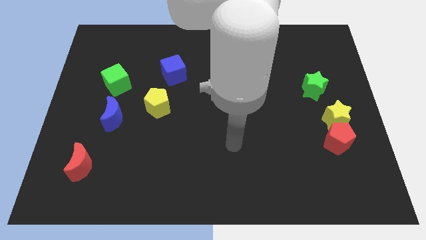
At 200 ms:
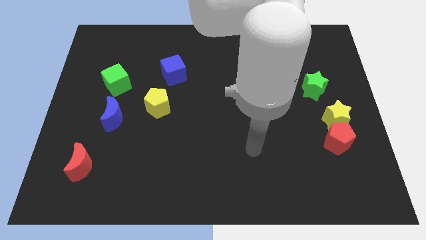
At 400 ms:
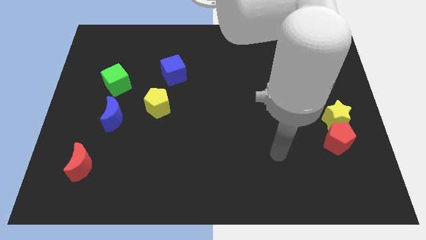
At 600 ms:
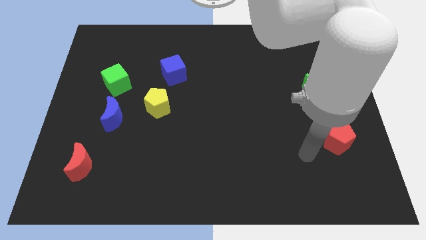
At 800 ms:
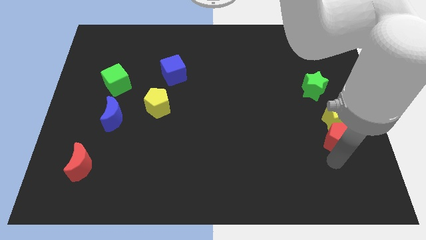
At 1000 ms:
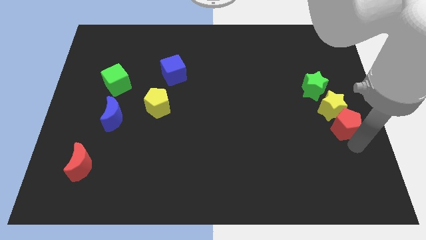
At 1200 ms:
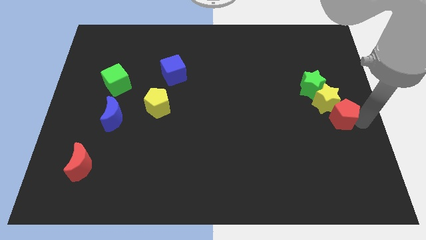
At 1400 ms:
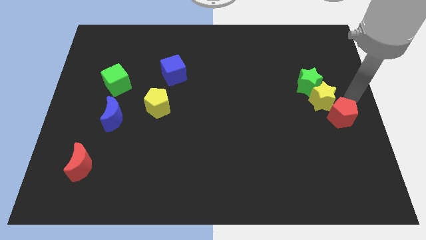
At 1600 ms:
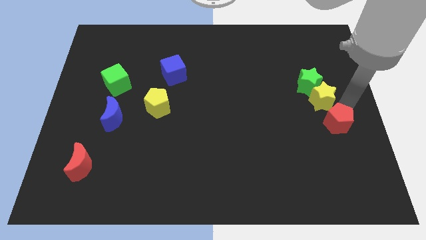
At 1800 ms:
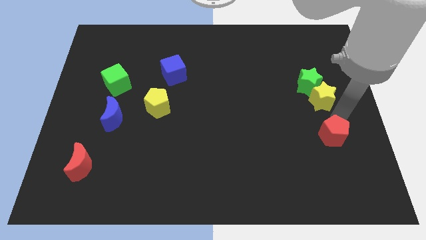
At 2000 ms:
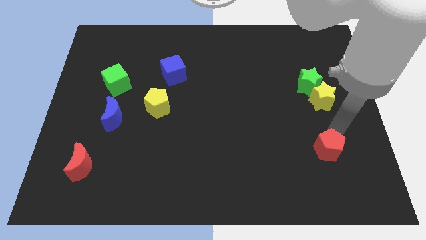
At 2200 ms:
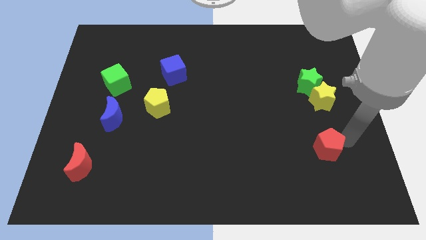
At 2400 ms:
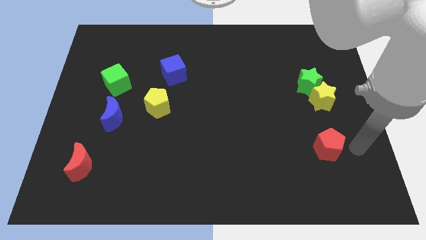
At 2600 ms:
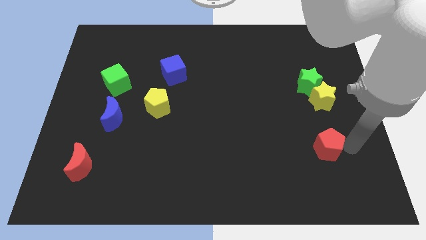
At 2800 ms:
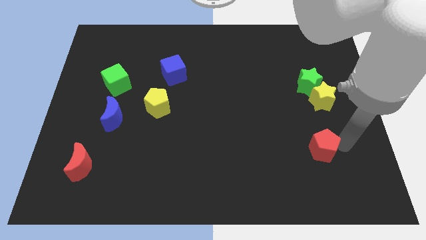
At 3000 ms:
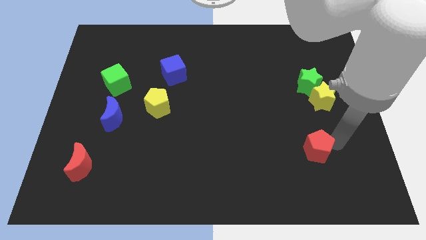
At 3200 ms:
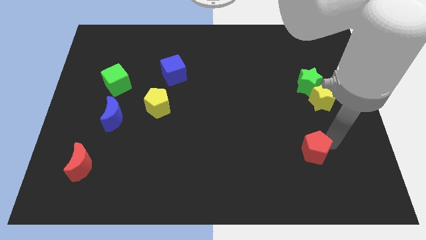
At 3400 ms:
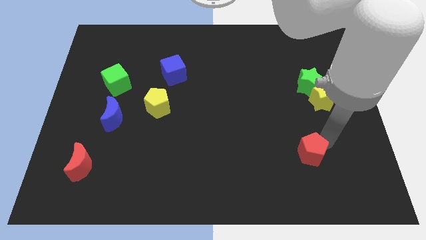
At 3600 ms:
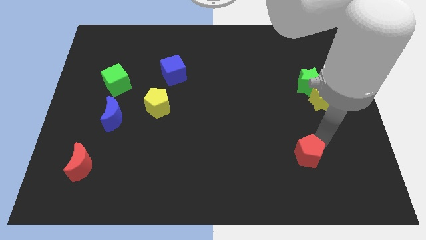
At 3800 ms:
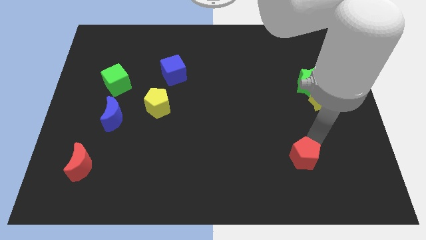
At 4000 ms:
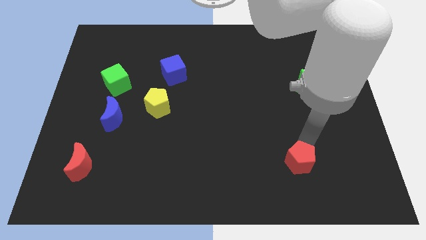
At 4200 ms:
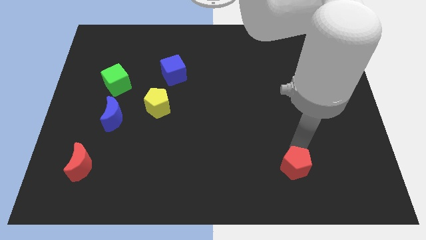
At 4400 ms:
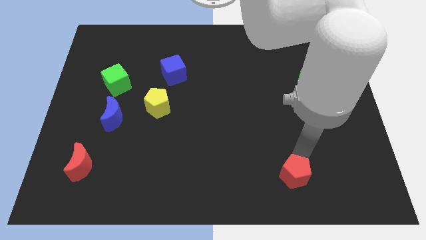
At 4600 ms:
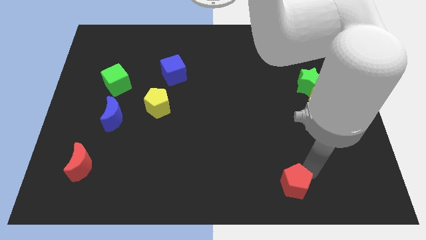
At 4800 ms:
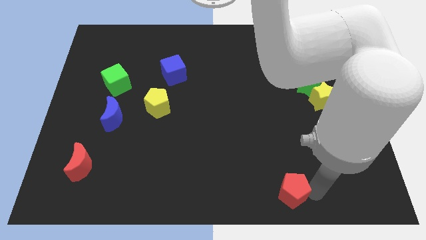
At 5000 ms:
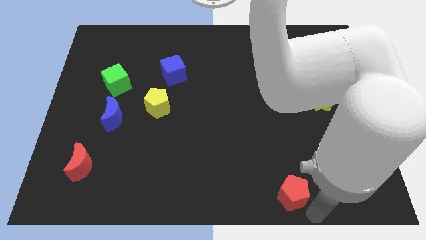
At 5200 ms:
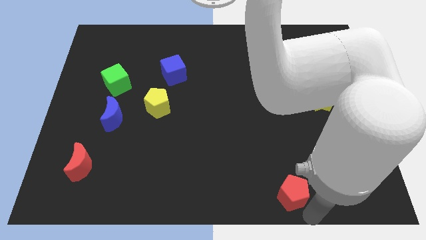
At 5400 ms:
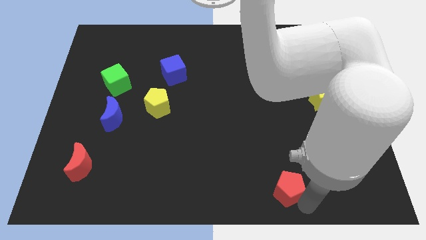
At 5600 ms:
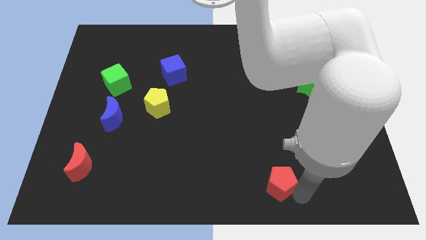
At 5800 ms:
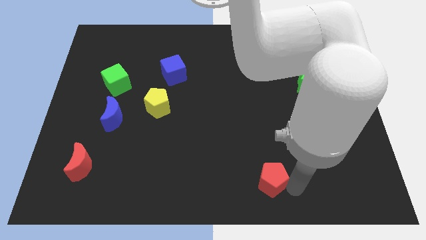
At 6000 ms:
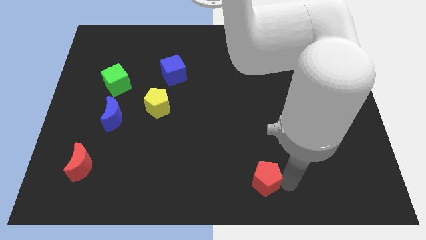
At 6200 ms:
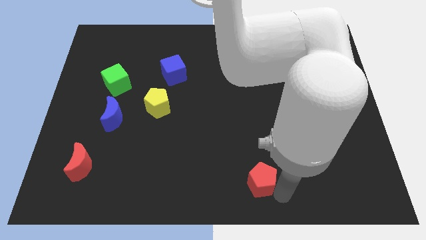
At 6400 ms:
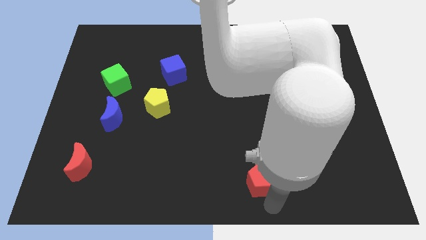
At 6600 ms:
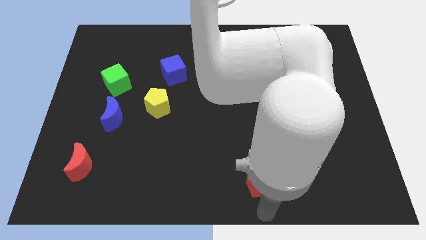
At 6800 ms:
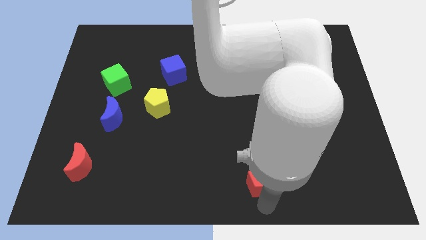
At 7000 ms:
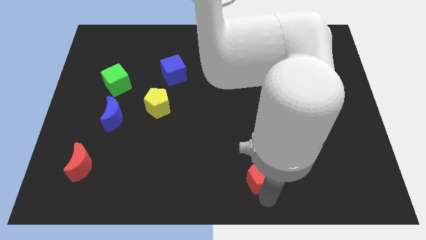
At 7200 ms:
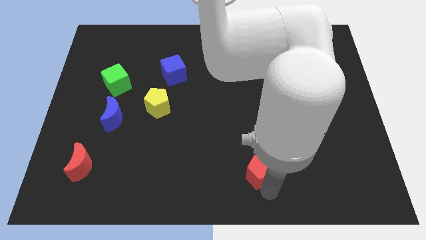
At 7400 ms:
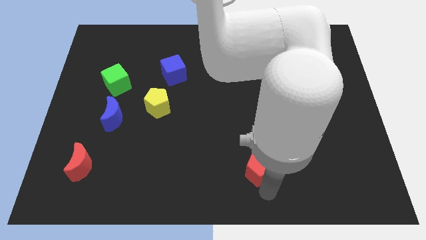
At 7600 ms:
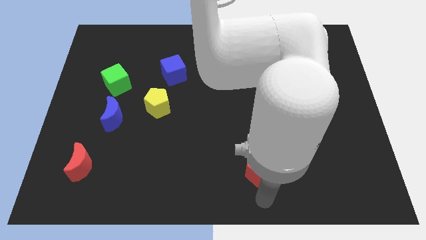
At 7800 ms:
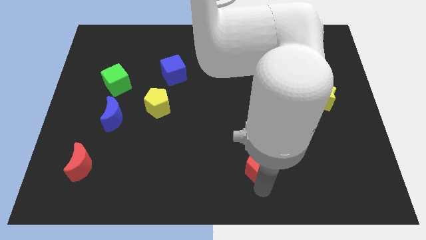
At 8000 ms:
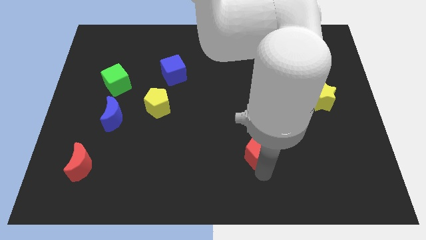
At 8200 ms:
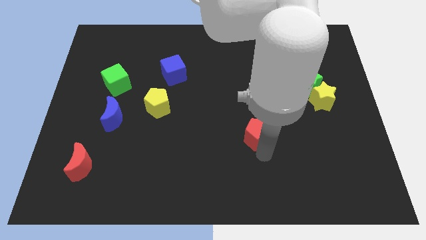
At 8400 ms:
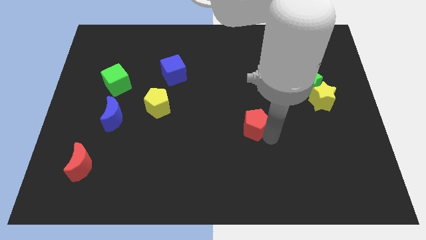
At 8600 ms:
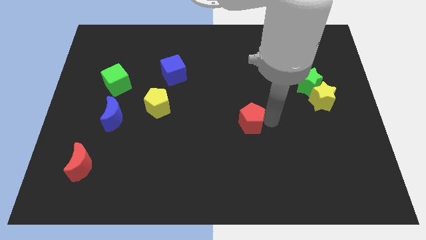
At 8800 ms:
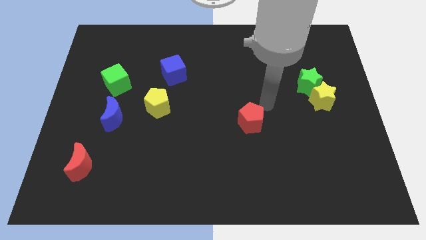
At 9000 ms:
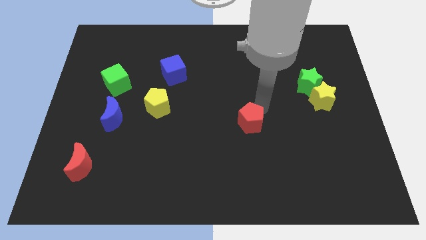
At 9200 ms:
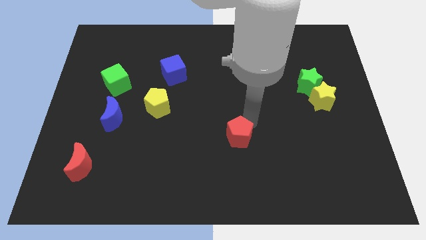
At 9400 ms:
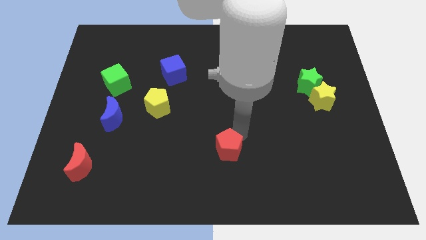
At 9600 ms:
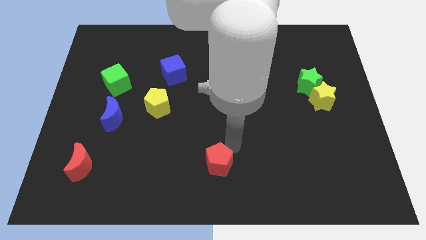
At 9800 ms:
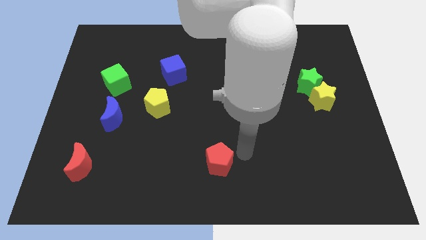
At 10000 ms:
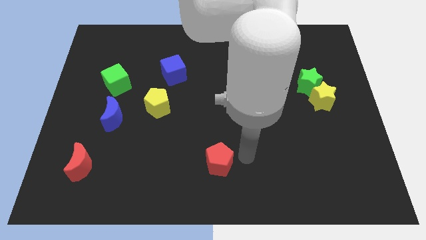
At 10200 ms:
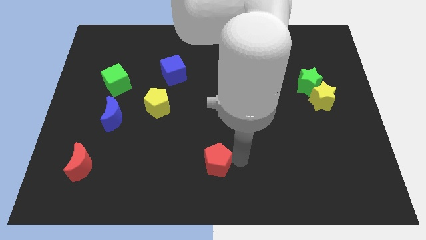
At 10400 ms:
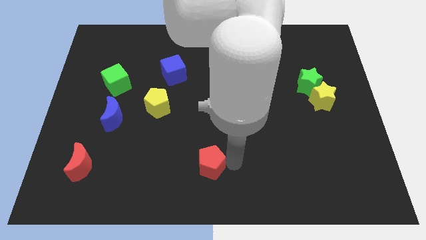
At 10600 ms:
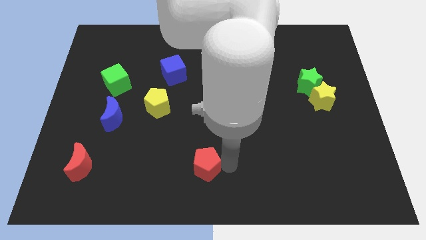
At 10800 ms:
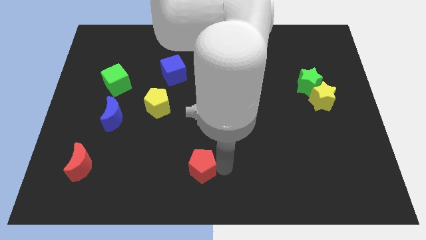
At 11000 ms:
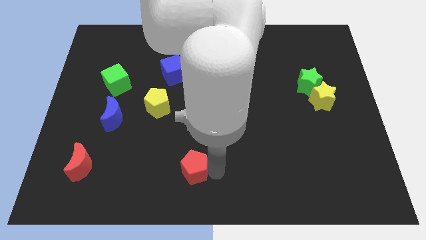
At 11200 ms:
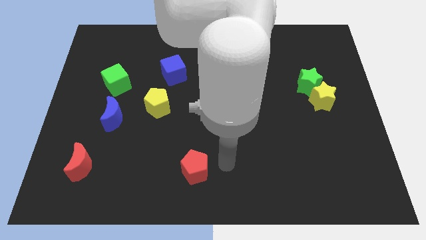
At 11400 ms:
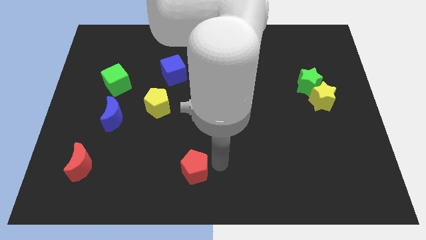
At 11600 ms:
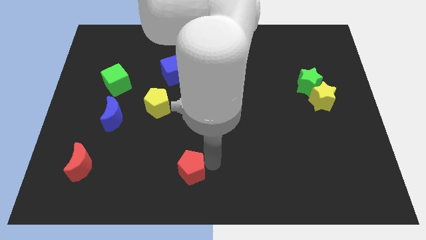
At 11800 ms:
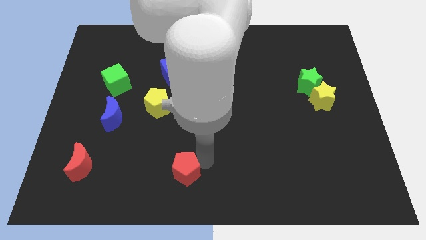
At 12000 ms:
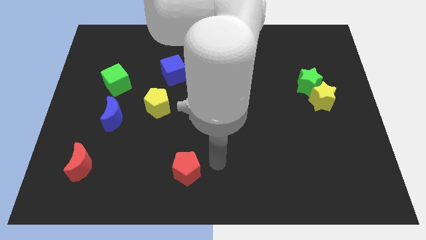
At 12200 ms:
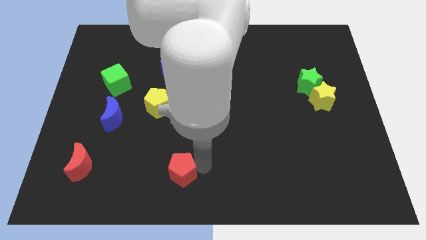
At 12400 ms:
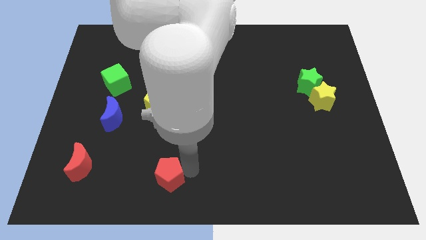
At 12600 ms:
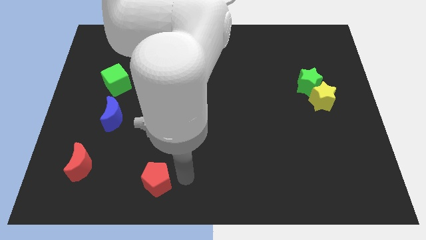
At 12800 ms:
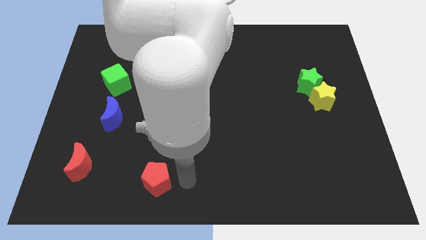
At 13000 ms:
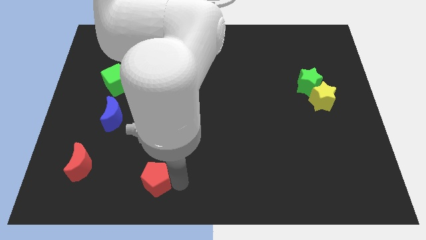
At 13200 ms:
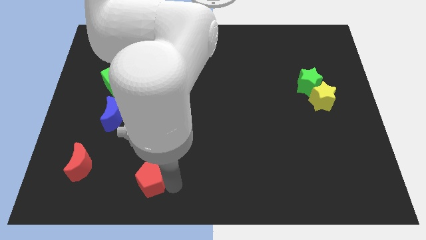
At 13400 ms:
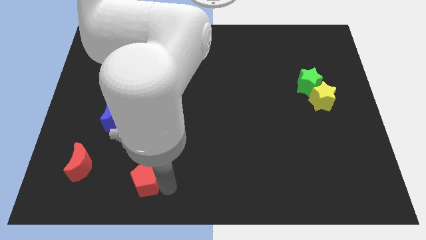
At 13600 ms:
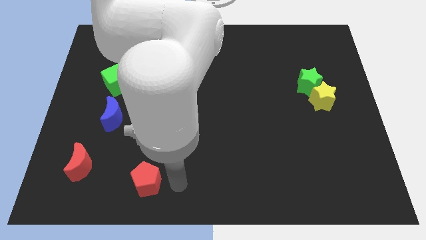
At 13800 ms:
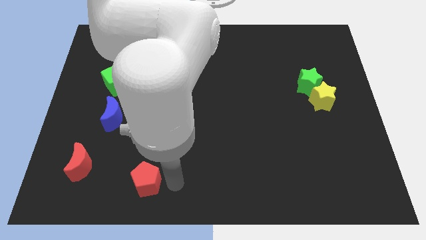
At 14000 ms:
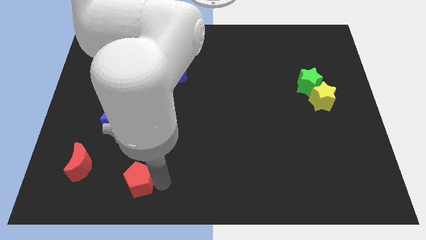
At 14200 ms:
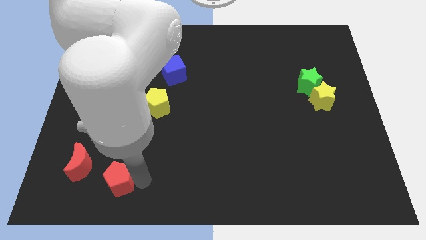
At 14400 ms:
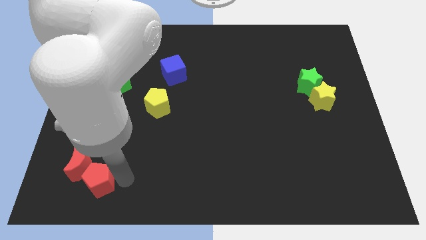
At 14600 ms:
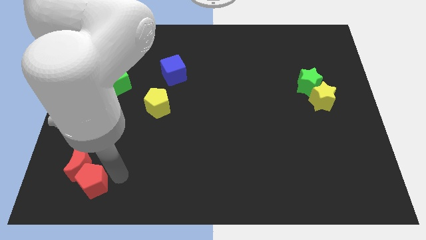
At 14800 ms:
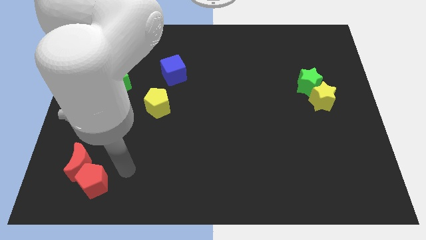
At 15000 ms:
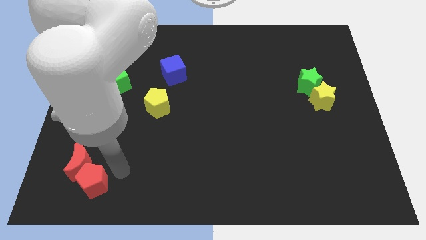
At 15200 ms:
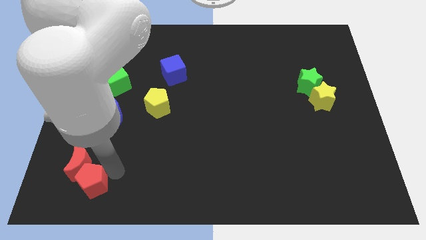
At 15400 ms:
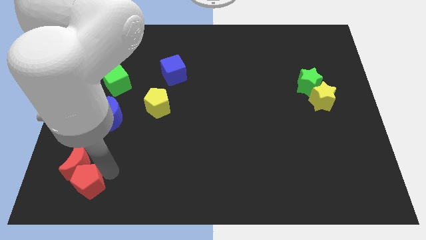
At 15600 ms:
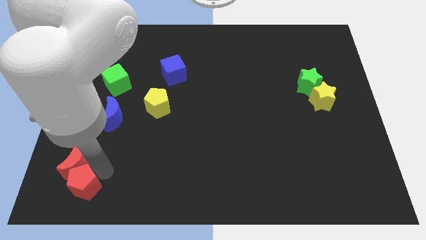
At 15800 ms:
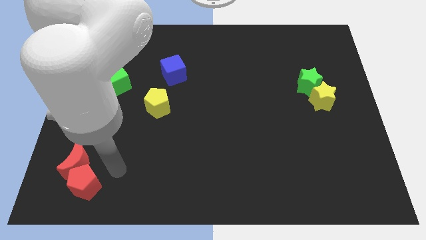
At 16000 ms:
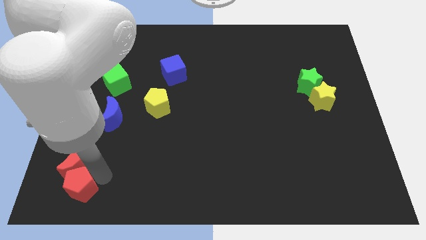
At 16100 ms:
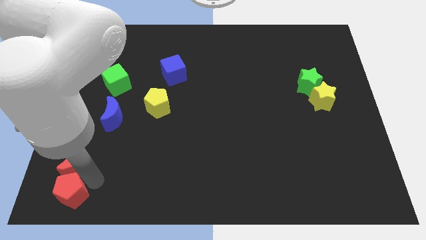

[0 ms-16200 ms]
put the red pentagon to the lower left corner

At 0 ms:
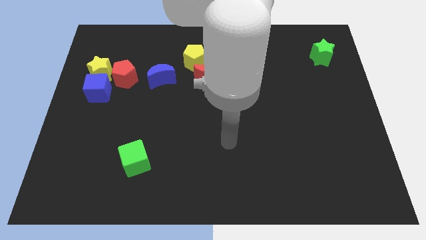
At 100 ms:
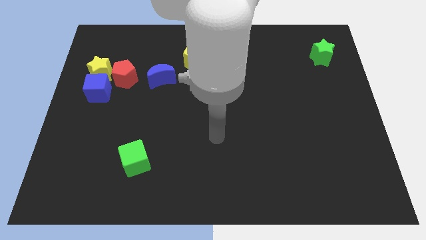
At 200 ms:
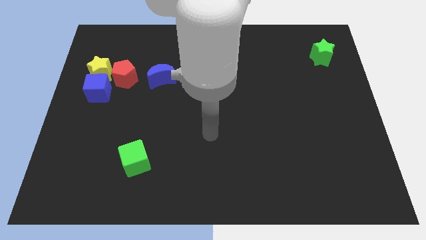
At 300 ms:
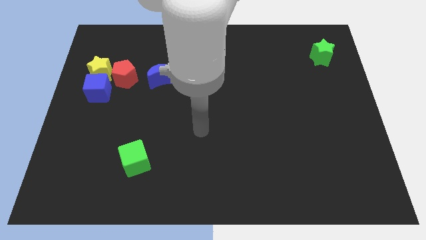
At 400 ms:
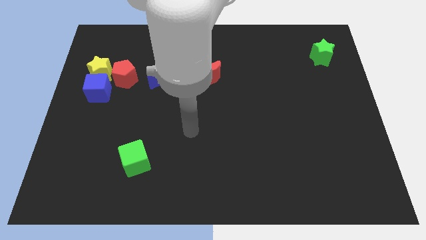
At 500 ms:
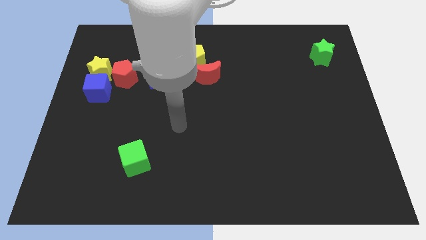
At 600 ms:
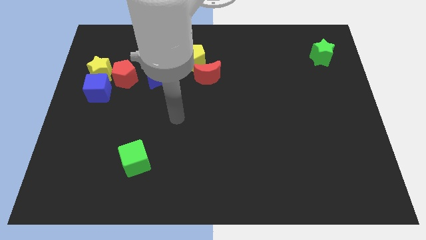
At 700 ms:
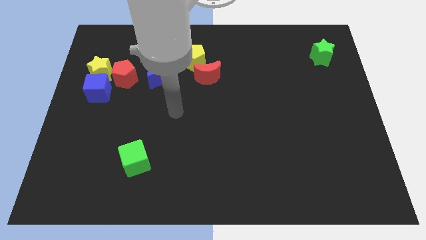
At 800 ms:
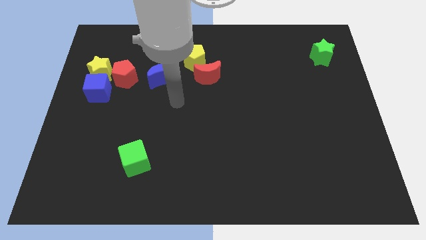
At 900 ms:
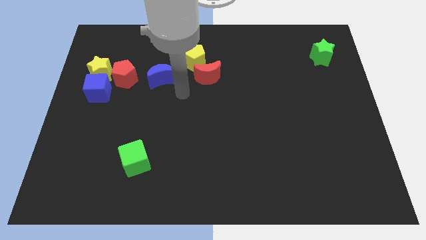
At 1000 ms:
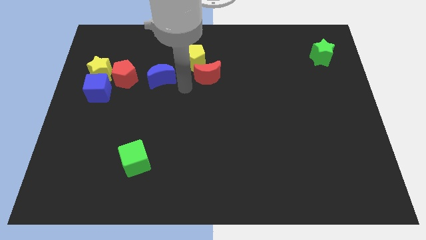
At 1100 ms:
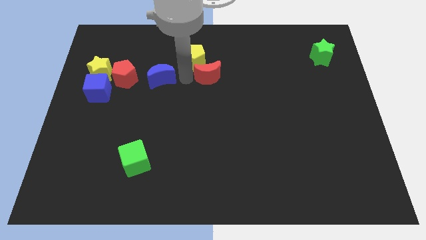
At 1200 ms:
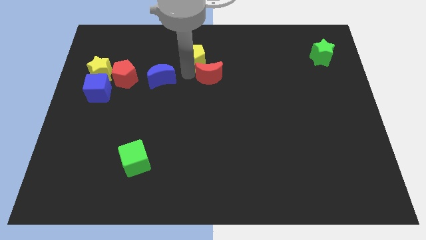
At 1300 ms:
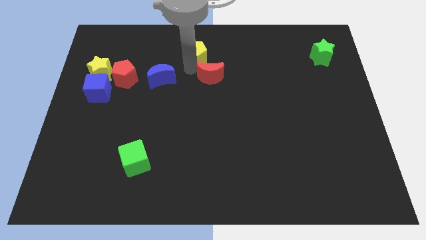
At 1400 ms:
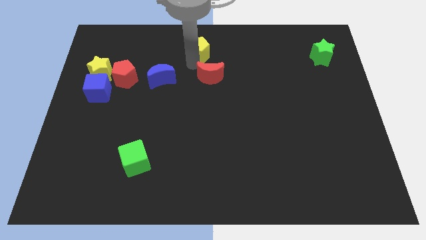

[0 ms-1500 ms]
put the yellow pentagon to the top
